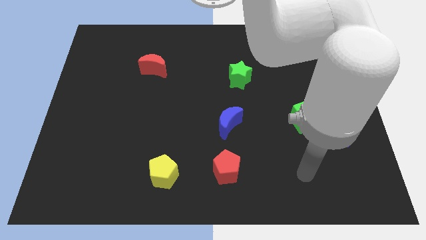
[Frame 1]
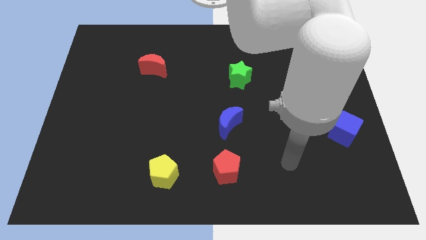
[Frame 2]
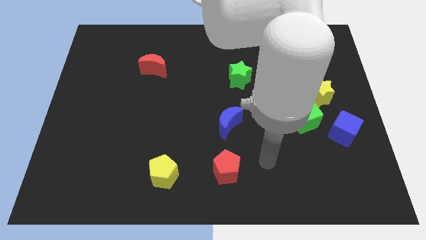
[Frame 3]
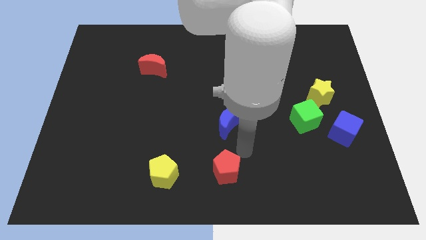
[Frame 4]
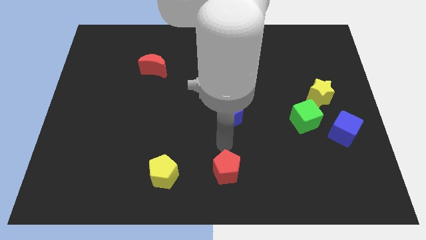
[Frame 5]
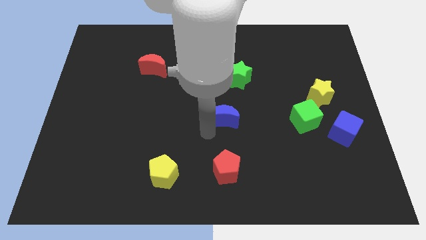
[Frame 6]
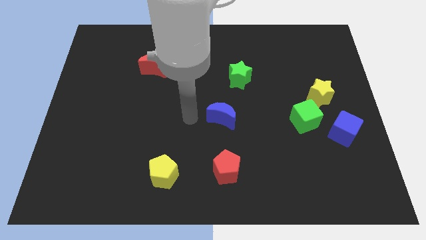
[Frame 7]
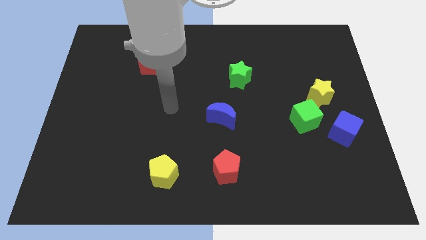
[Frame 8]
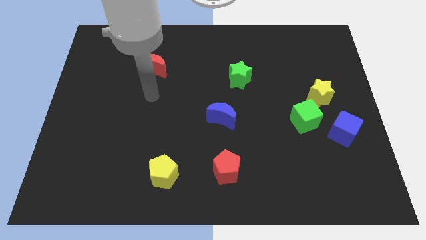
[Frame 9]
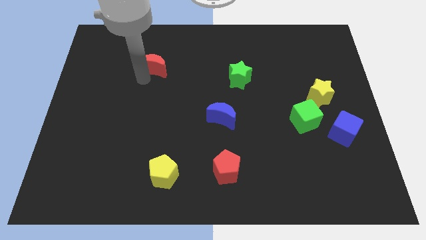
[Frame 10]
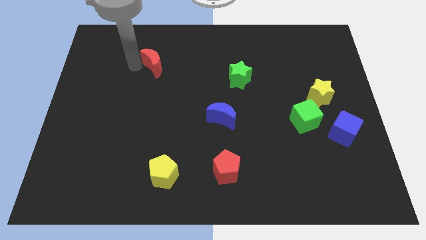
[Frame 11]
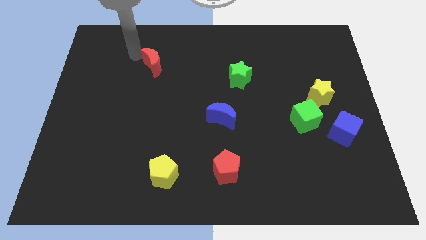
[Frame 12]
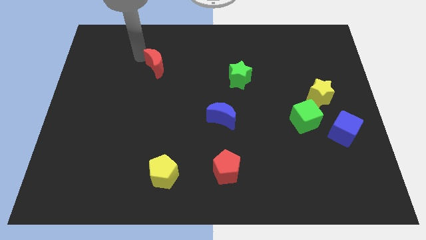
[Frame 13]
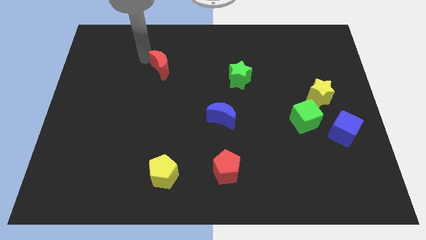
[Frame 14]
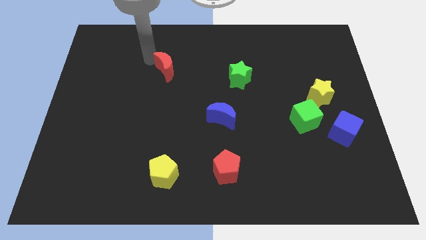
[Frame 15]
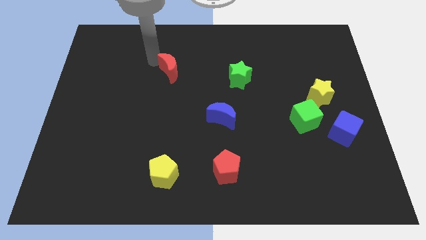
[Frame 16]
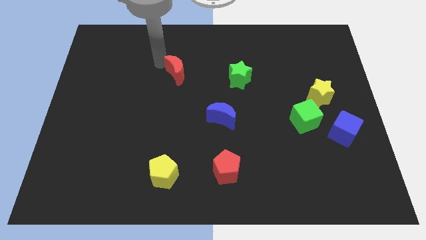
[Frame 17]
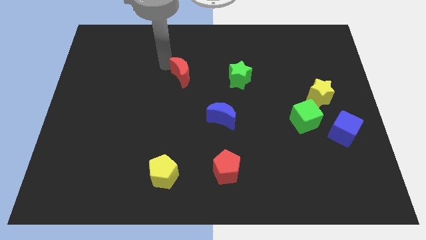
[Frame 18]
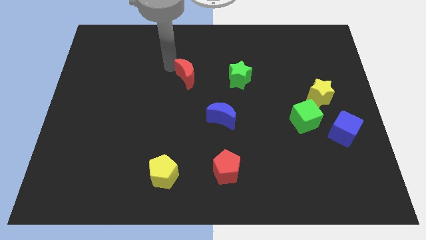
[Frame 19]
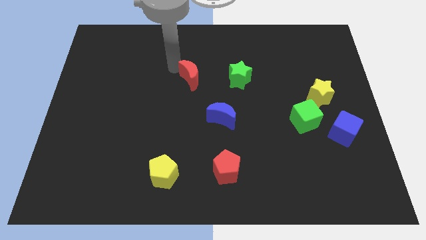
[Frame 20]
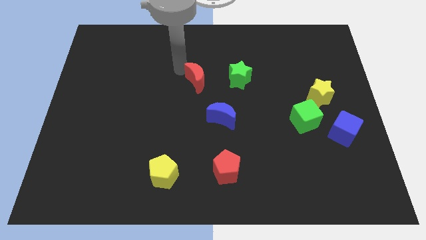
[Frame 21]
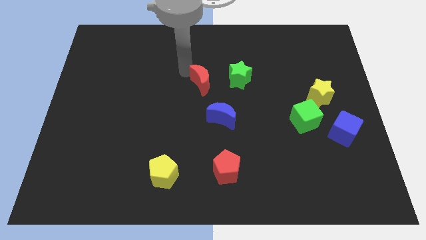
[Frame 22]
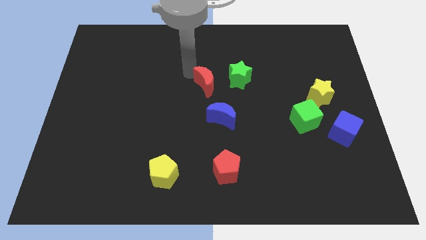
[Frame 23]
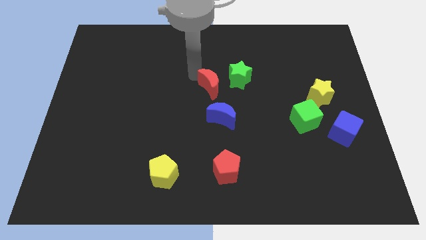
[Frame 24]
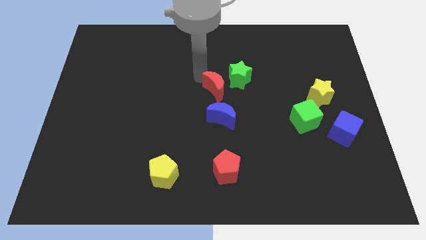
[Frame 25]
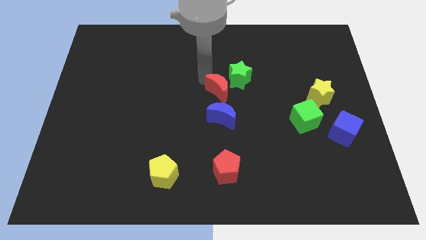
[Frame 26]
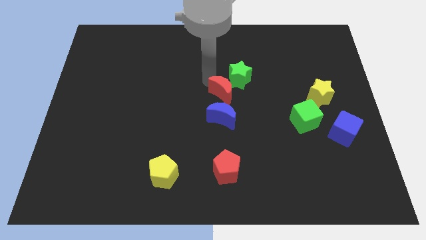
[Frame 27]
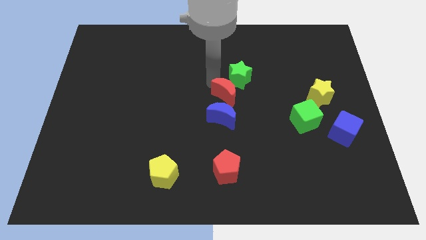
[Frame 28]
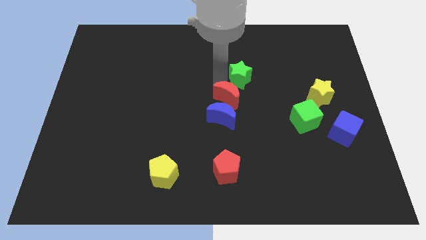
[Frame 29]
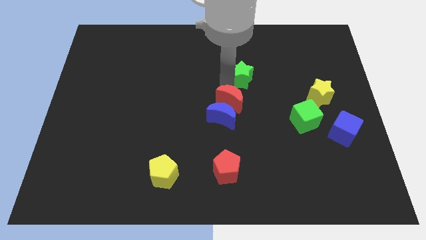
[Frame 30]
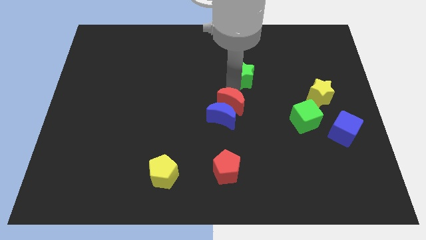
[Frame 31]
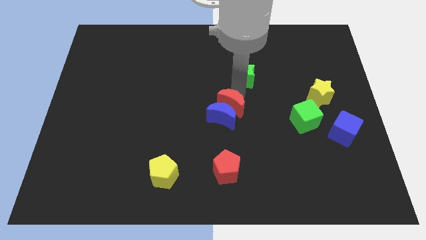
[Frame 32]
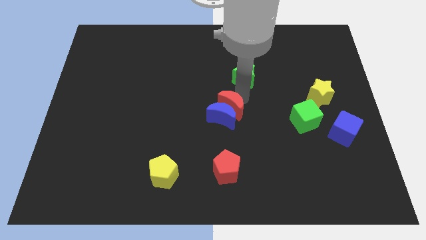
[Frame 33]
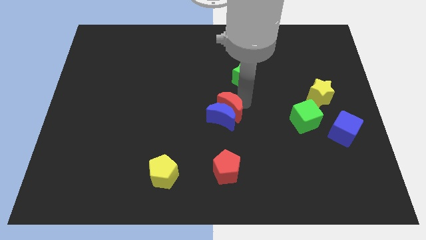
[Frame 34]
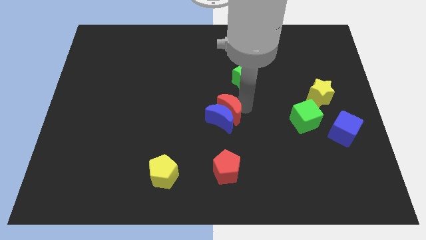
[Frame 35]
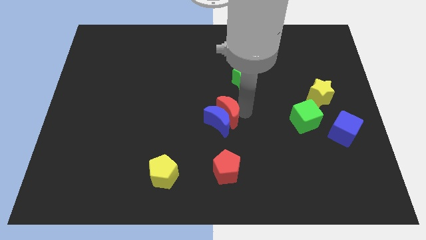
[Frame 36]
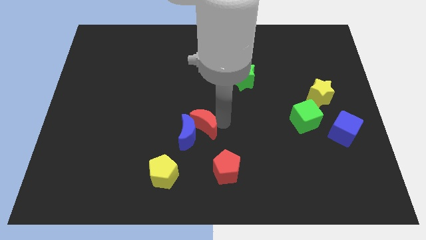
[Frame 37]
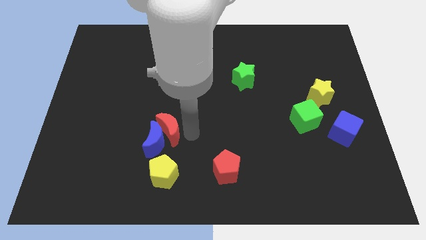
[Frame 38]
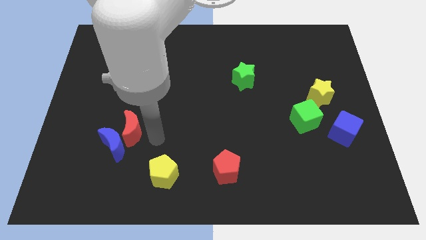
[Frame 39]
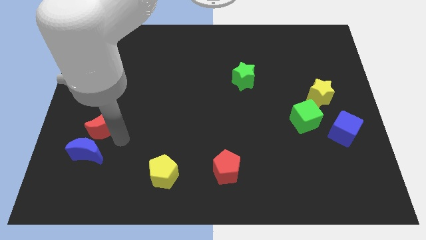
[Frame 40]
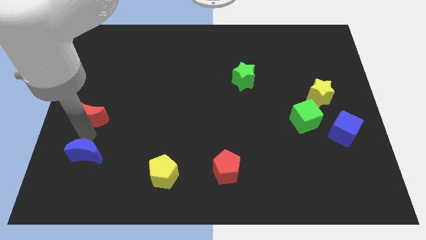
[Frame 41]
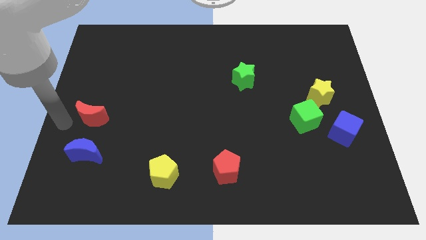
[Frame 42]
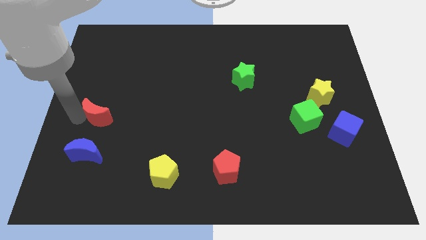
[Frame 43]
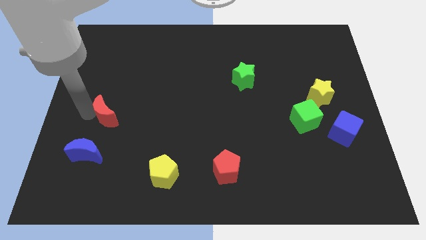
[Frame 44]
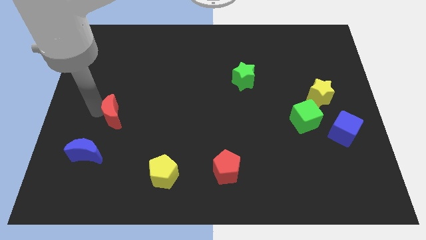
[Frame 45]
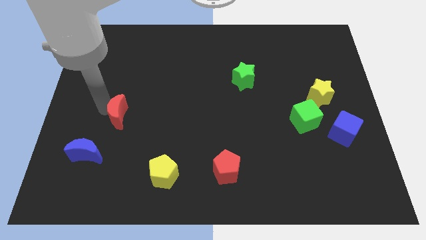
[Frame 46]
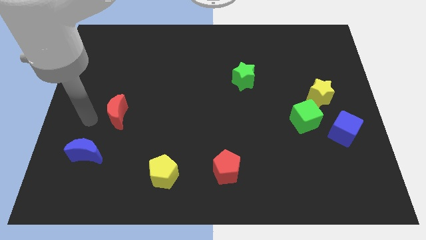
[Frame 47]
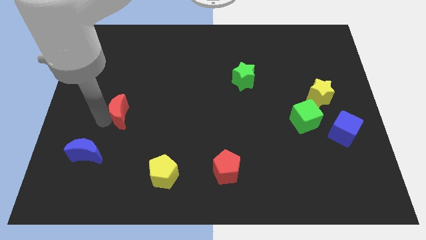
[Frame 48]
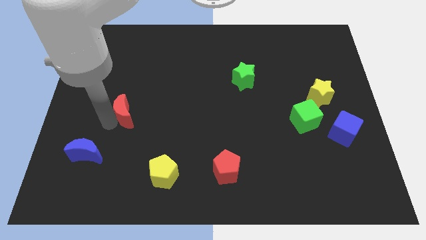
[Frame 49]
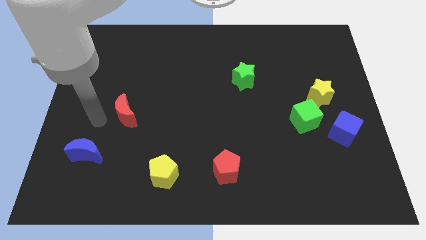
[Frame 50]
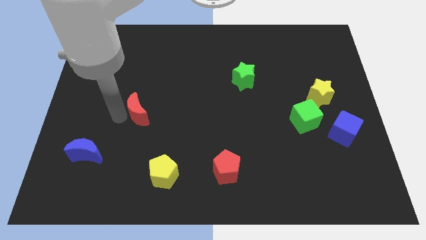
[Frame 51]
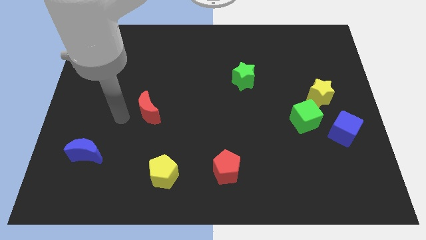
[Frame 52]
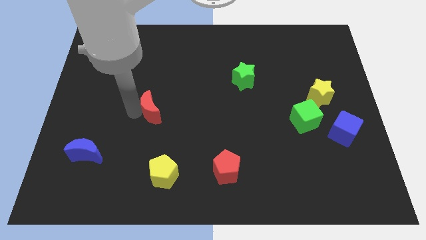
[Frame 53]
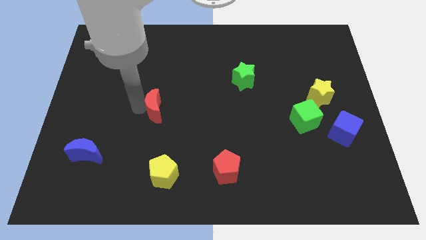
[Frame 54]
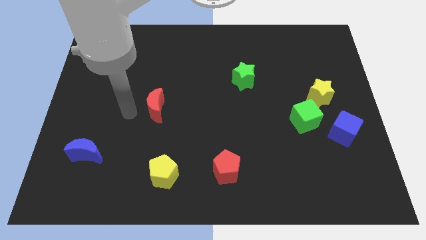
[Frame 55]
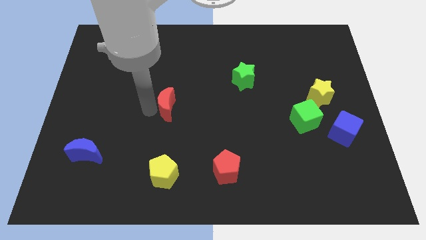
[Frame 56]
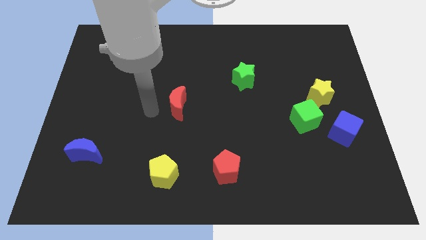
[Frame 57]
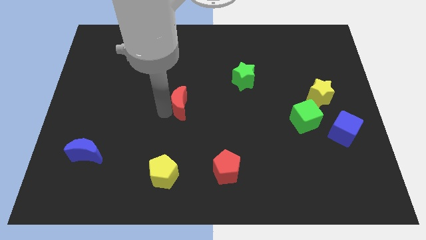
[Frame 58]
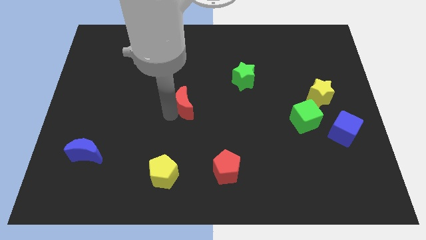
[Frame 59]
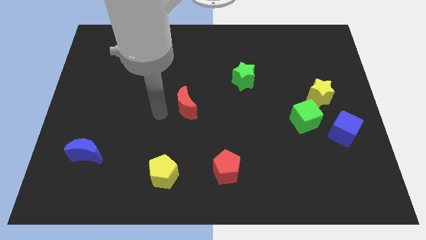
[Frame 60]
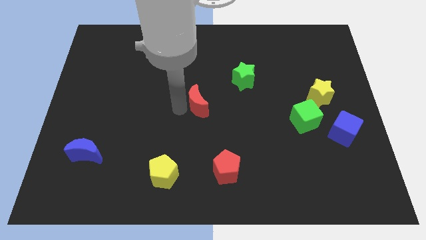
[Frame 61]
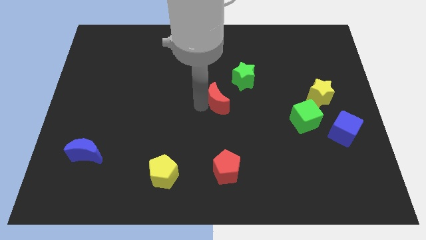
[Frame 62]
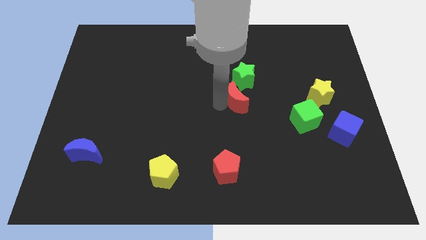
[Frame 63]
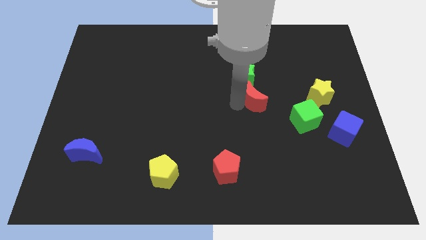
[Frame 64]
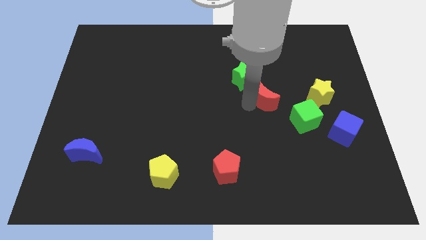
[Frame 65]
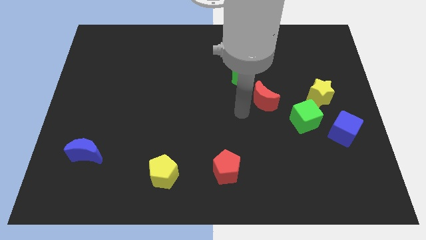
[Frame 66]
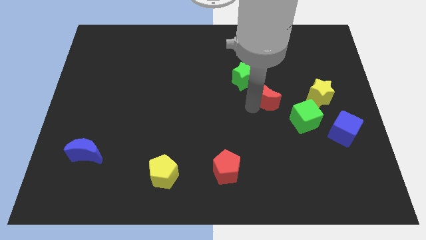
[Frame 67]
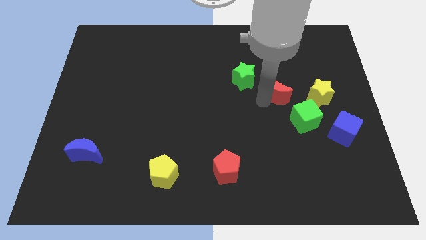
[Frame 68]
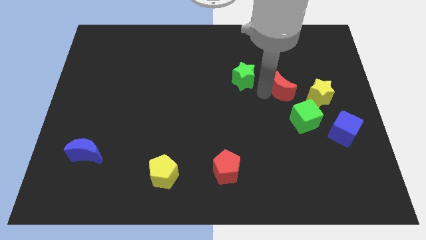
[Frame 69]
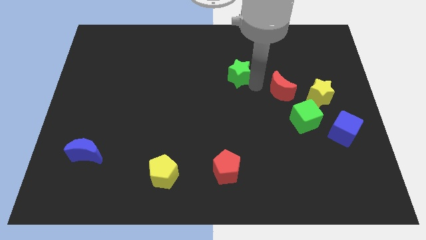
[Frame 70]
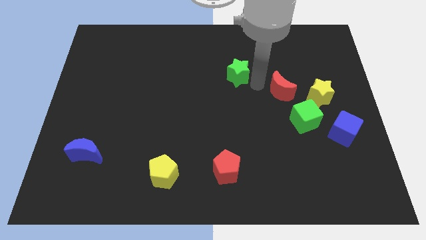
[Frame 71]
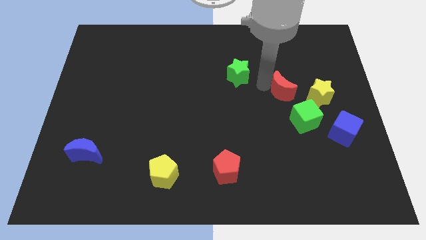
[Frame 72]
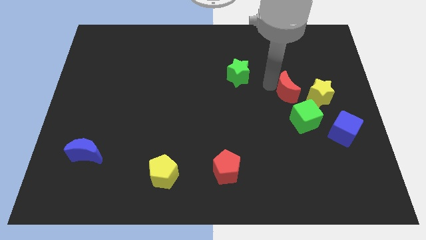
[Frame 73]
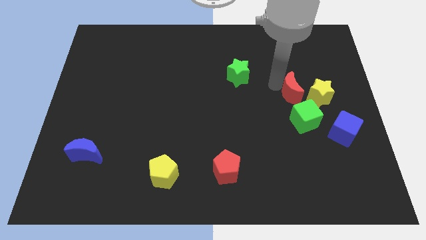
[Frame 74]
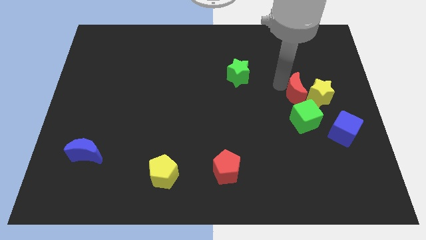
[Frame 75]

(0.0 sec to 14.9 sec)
put the red moon close to the yellow star

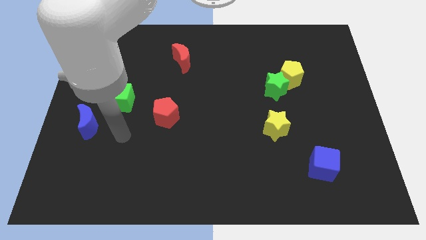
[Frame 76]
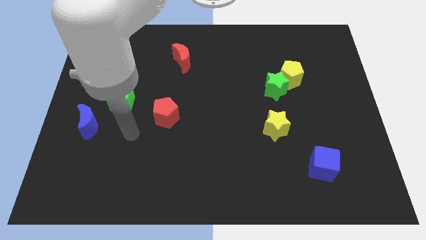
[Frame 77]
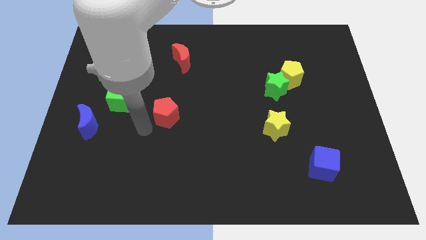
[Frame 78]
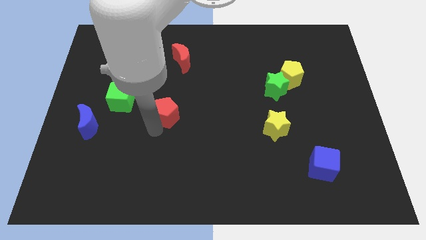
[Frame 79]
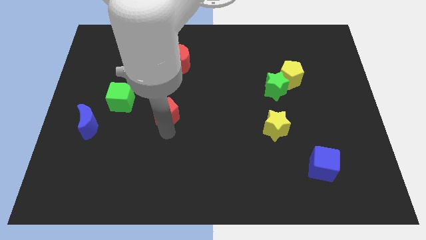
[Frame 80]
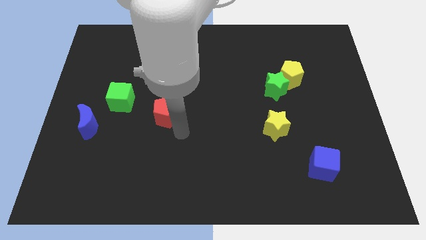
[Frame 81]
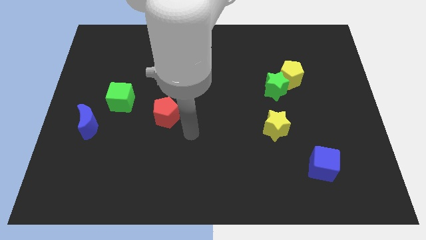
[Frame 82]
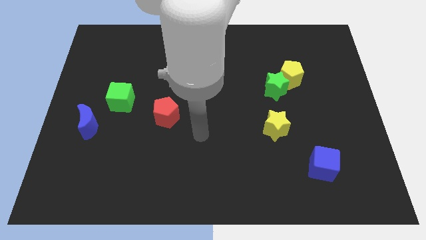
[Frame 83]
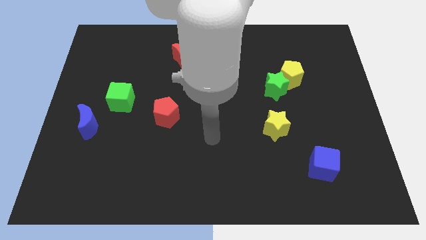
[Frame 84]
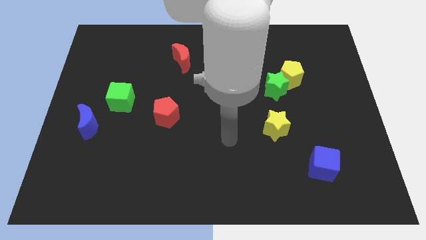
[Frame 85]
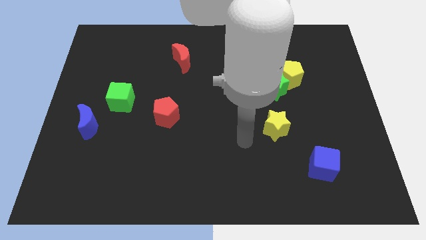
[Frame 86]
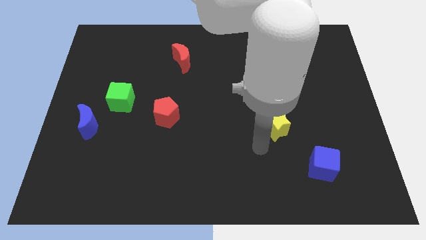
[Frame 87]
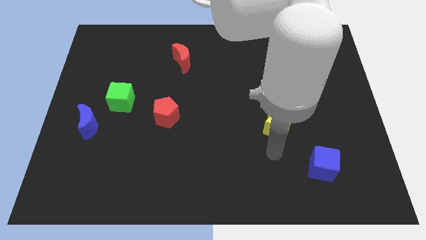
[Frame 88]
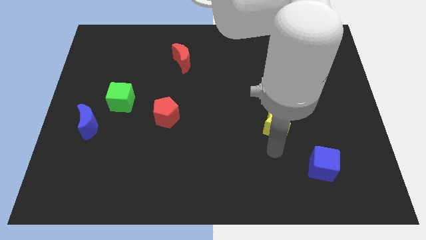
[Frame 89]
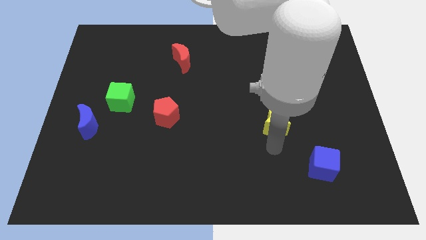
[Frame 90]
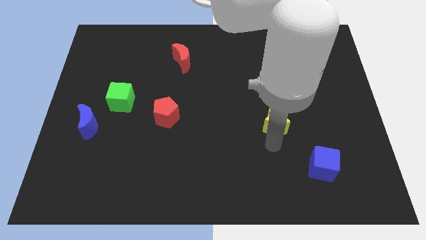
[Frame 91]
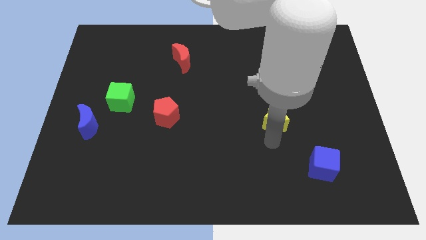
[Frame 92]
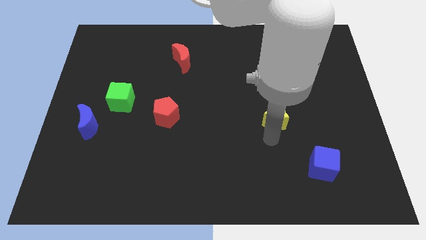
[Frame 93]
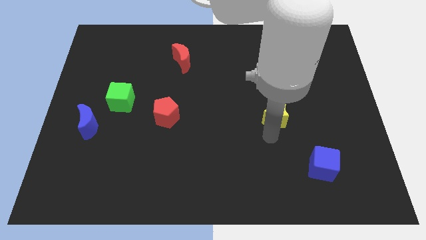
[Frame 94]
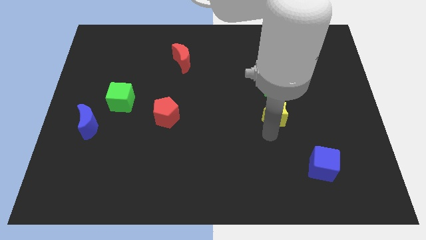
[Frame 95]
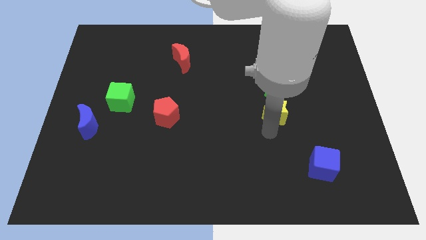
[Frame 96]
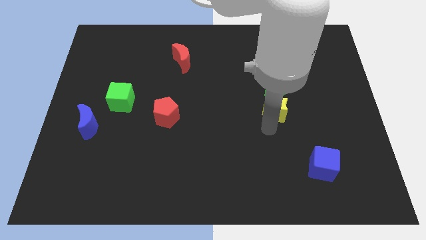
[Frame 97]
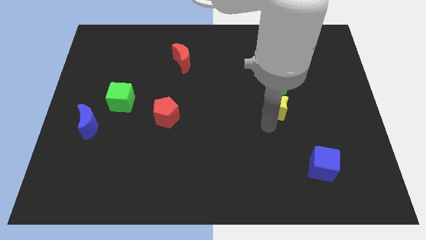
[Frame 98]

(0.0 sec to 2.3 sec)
move the yellow star towards the green star
